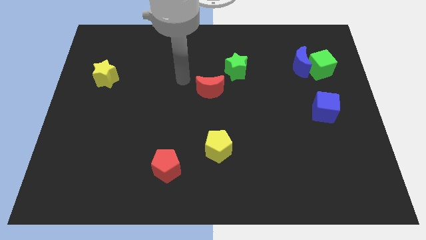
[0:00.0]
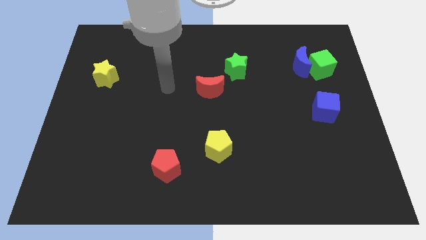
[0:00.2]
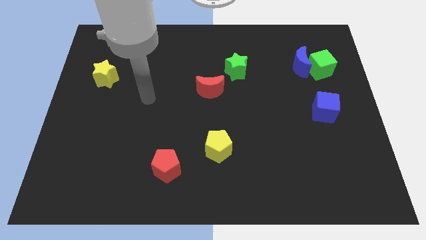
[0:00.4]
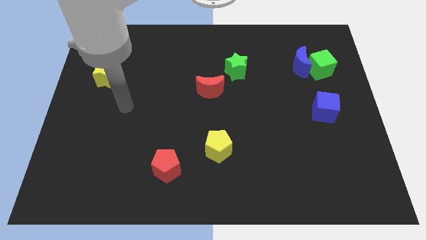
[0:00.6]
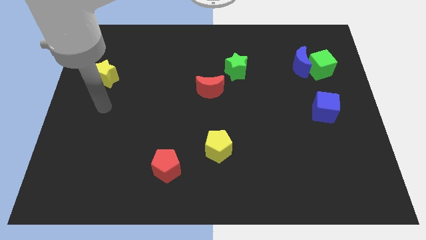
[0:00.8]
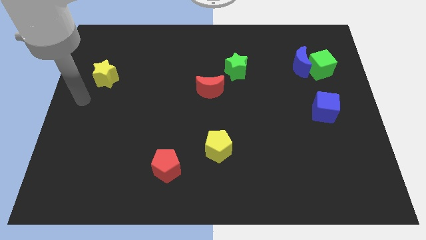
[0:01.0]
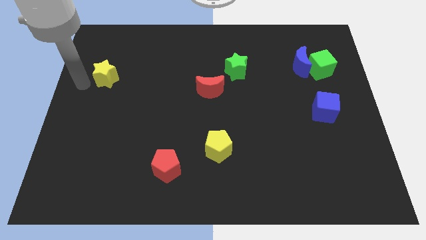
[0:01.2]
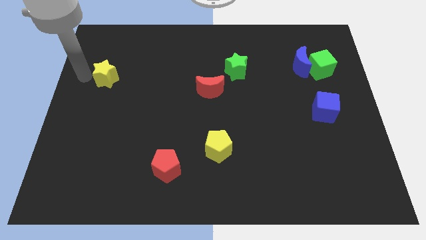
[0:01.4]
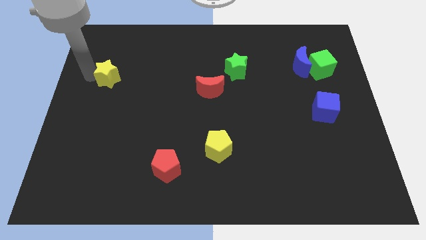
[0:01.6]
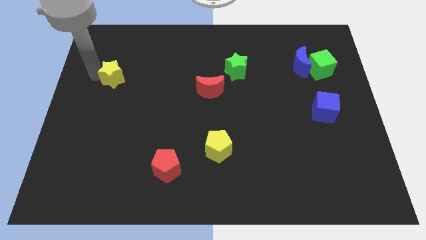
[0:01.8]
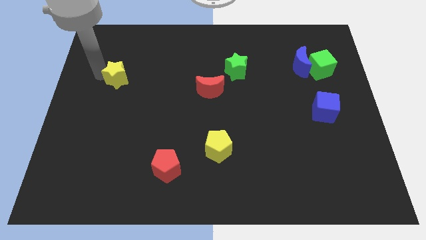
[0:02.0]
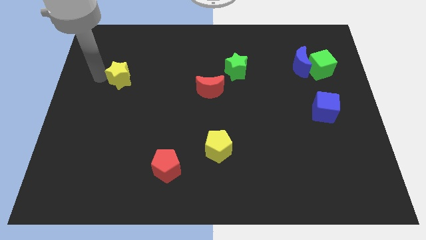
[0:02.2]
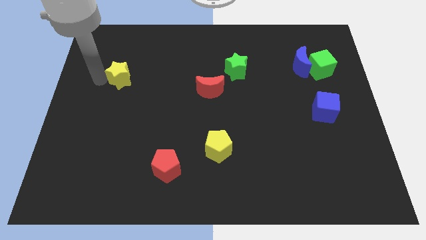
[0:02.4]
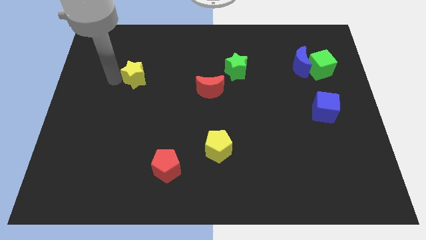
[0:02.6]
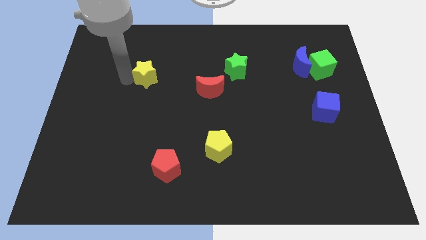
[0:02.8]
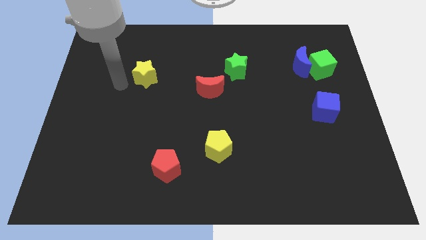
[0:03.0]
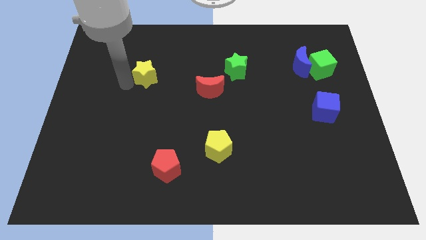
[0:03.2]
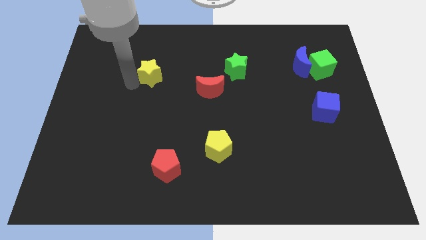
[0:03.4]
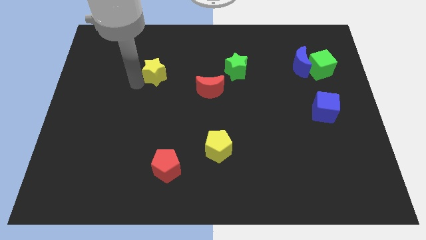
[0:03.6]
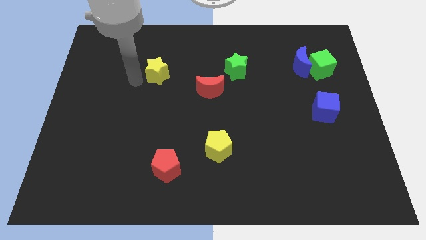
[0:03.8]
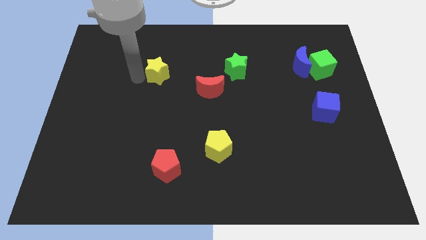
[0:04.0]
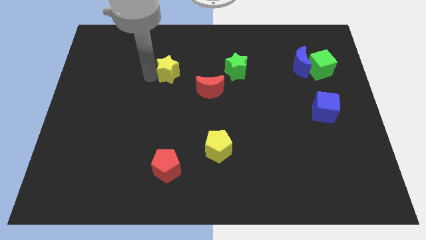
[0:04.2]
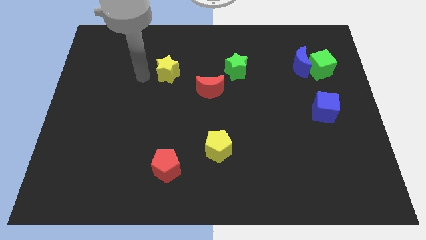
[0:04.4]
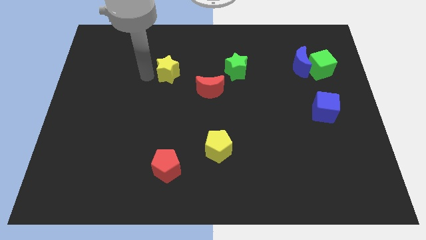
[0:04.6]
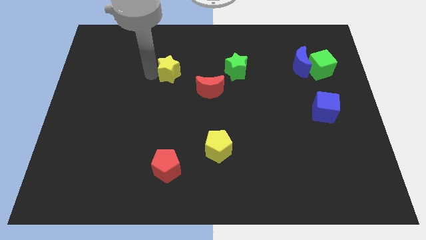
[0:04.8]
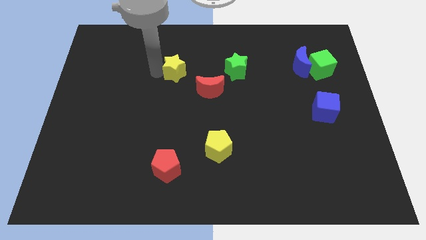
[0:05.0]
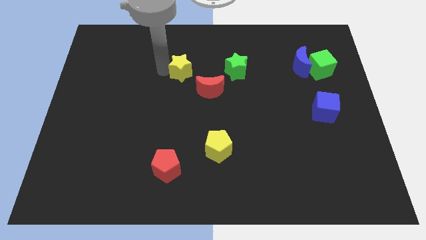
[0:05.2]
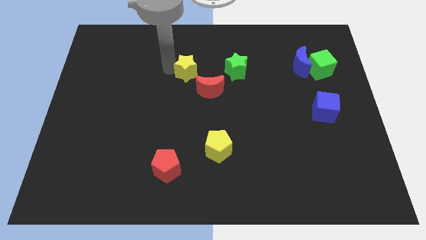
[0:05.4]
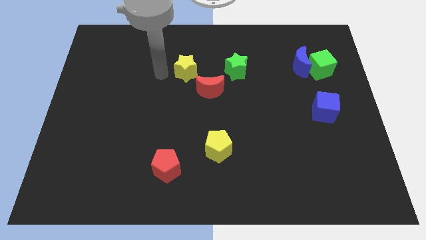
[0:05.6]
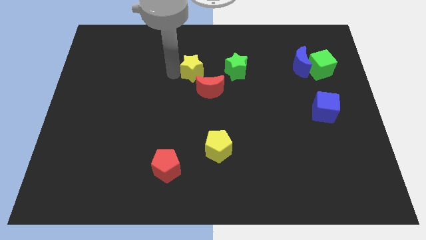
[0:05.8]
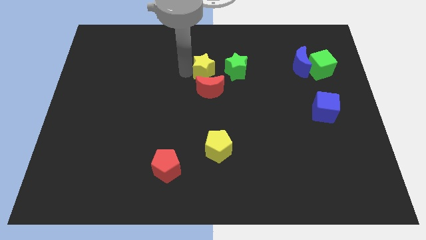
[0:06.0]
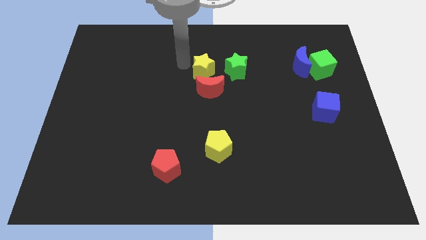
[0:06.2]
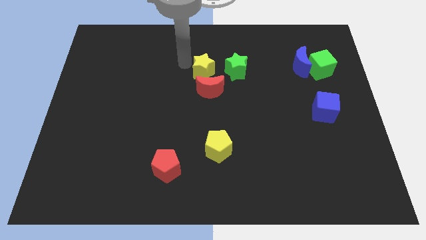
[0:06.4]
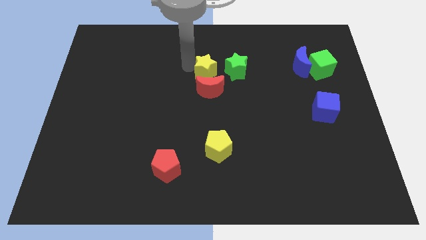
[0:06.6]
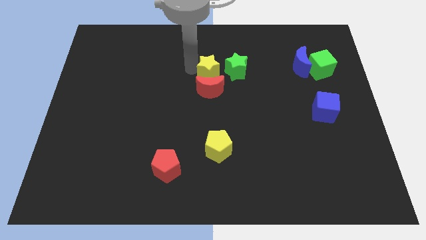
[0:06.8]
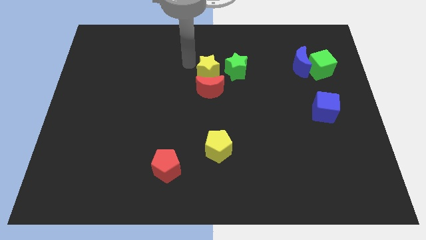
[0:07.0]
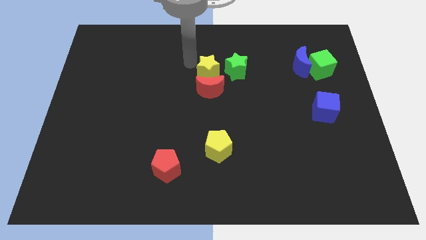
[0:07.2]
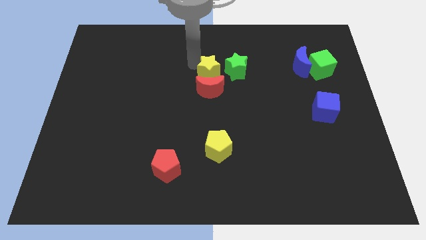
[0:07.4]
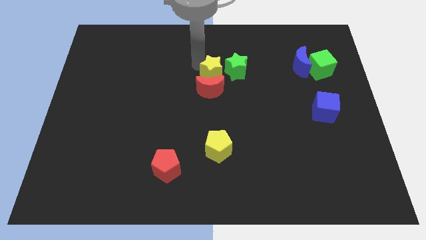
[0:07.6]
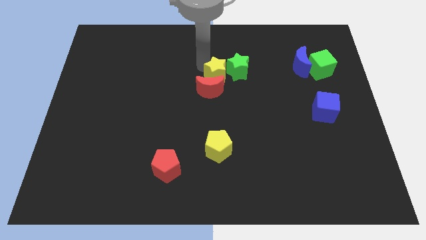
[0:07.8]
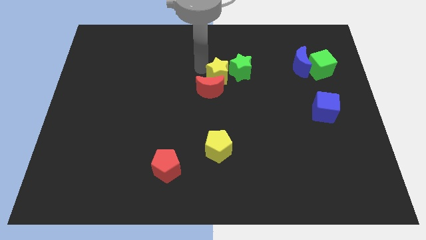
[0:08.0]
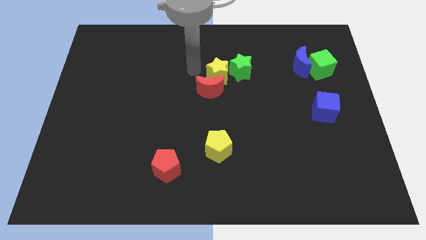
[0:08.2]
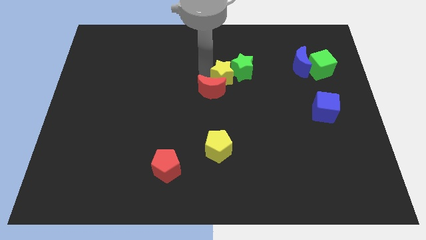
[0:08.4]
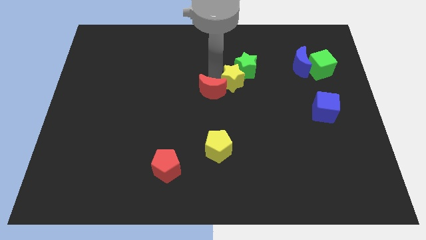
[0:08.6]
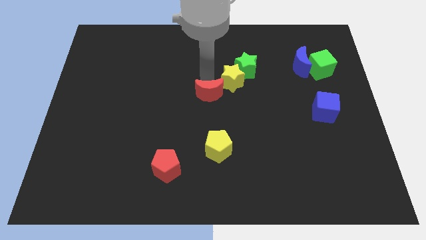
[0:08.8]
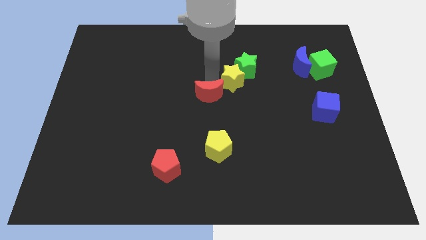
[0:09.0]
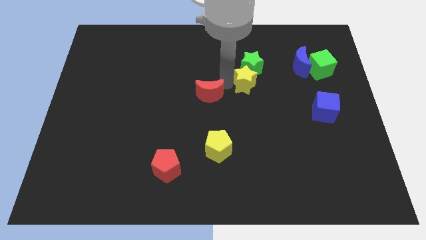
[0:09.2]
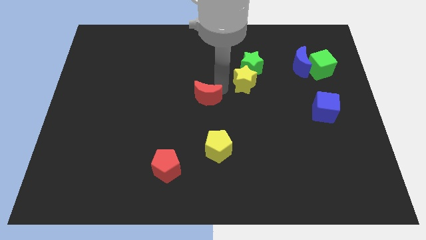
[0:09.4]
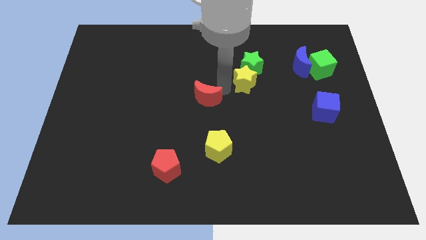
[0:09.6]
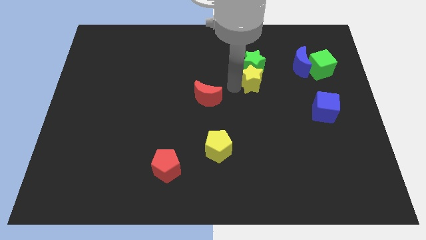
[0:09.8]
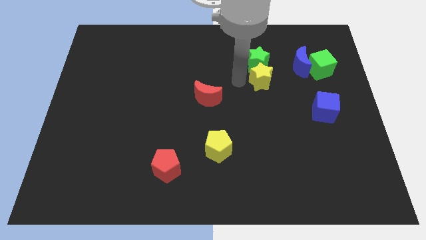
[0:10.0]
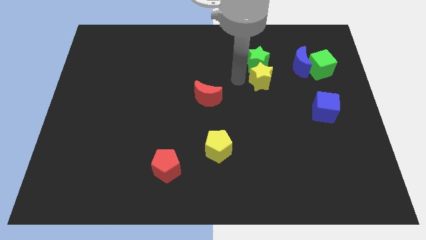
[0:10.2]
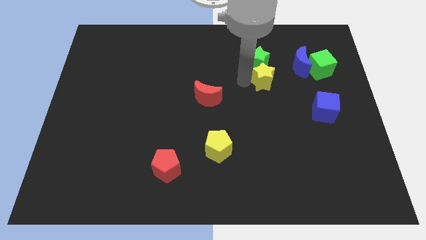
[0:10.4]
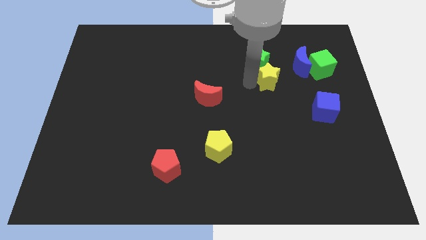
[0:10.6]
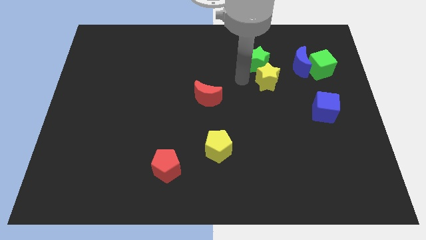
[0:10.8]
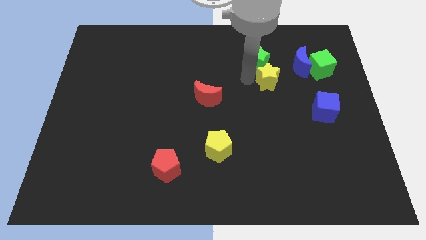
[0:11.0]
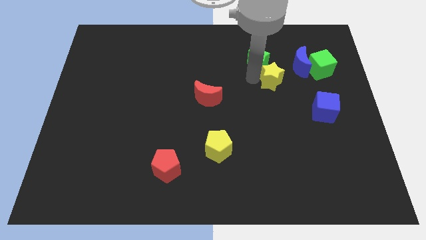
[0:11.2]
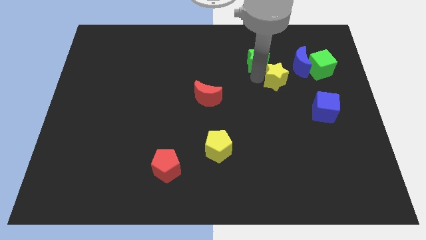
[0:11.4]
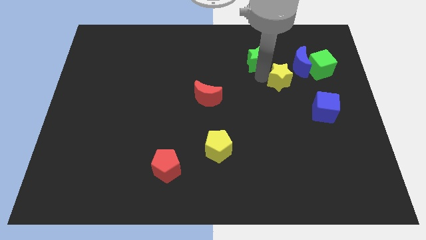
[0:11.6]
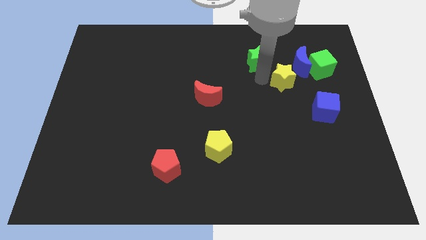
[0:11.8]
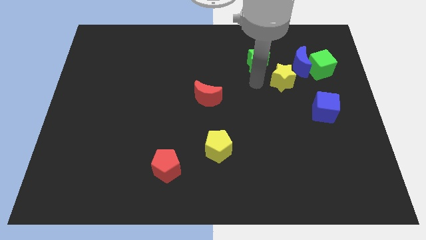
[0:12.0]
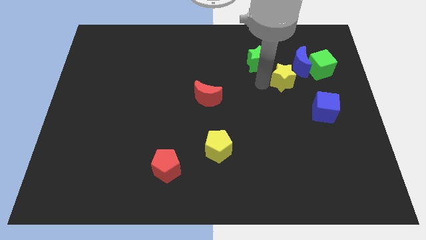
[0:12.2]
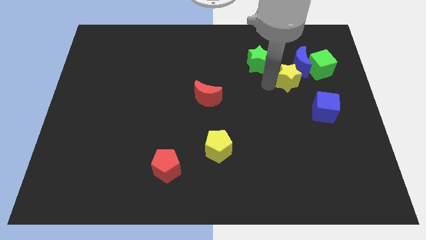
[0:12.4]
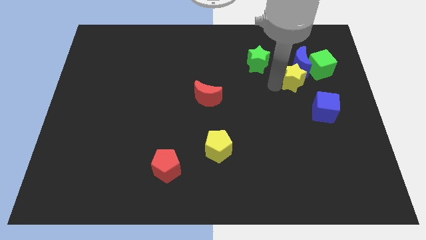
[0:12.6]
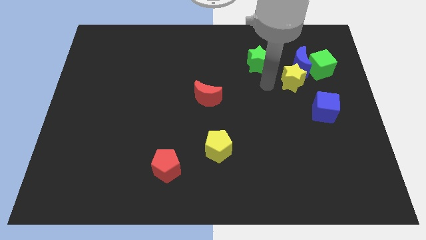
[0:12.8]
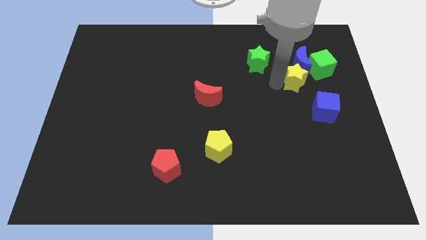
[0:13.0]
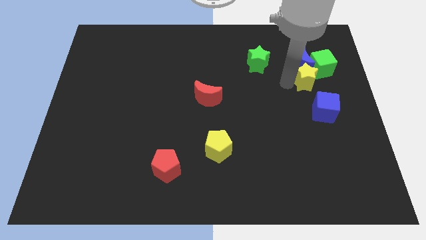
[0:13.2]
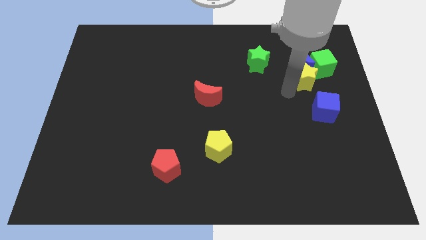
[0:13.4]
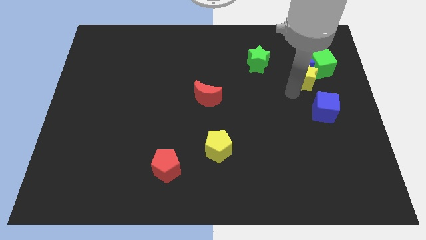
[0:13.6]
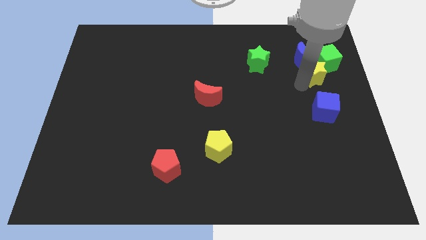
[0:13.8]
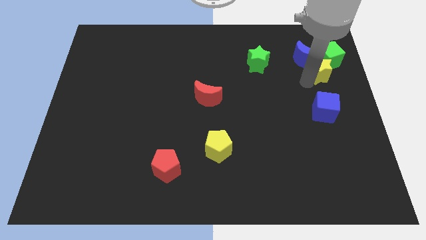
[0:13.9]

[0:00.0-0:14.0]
slide the yellow star to the green cube

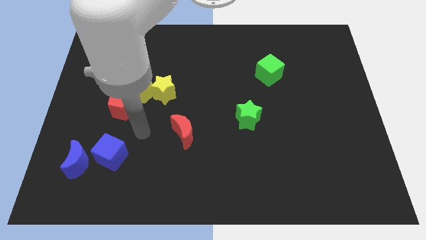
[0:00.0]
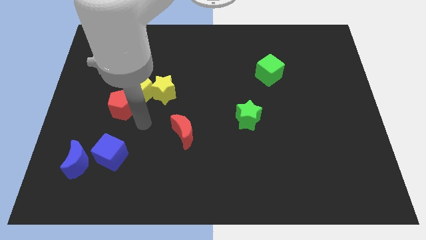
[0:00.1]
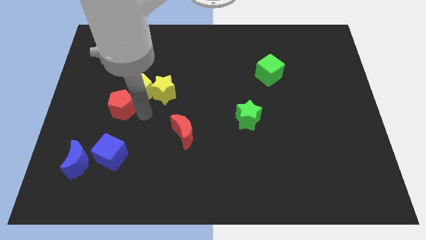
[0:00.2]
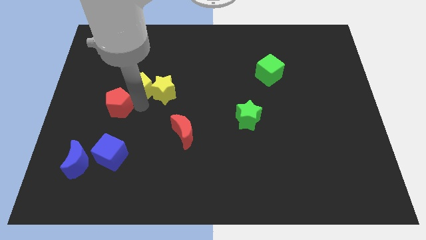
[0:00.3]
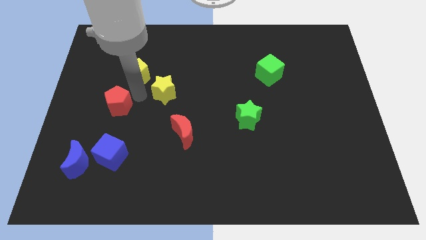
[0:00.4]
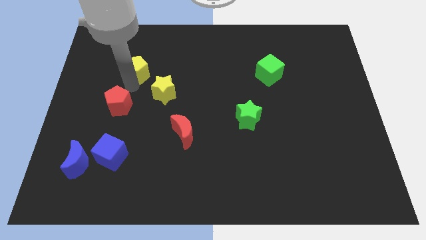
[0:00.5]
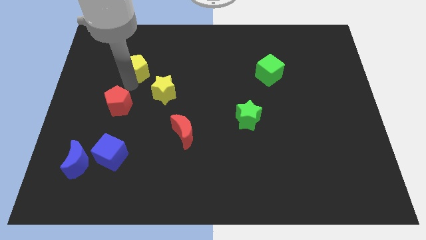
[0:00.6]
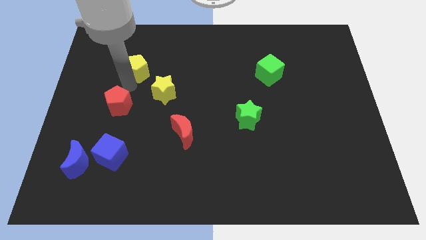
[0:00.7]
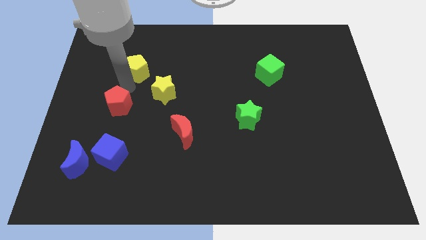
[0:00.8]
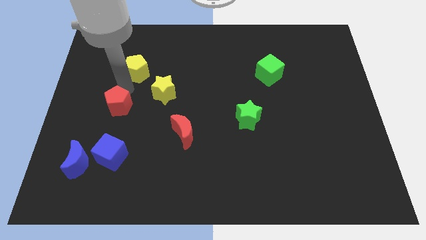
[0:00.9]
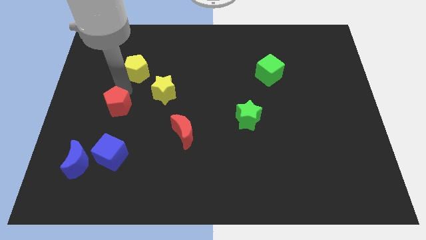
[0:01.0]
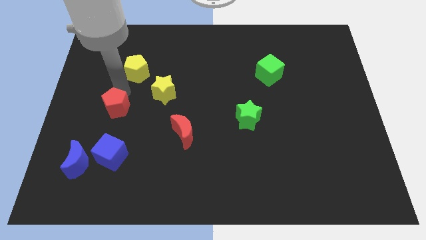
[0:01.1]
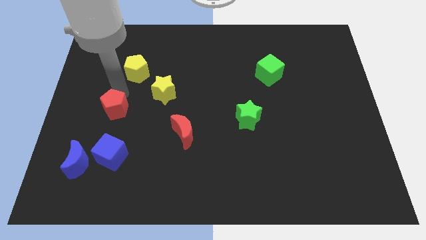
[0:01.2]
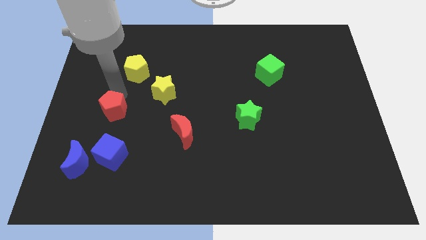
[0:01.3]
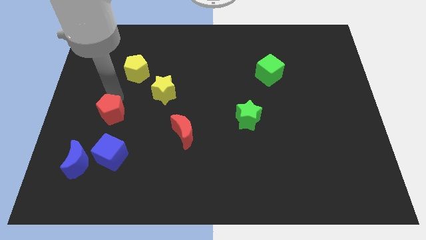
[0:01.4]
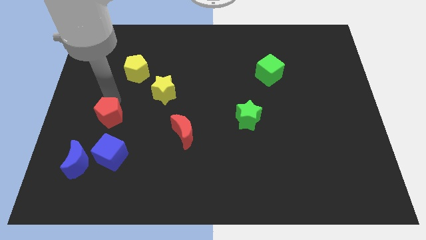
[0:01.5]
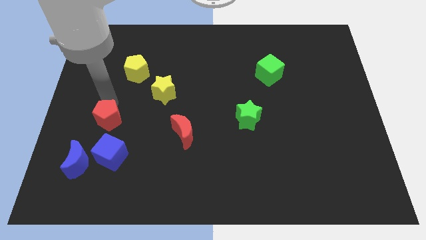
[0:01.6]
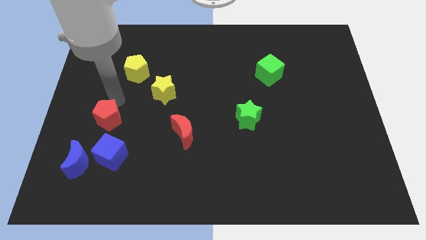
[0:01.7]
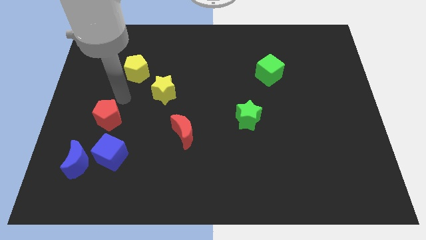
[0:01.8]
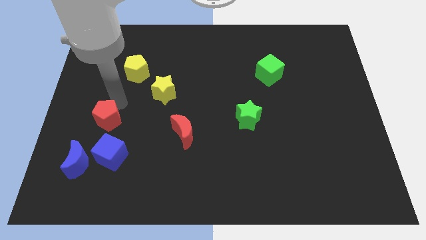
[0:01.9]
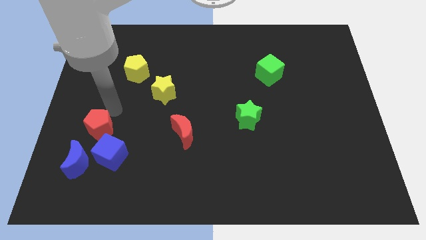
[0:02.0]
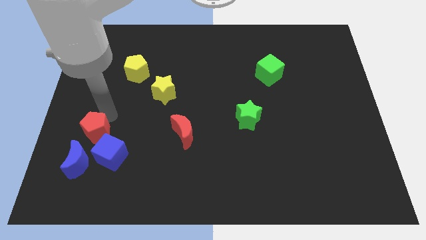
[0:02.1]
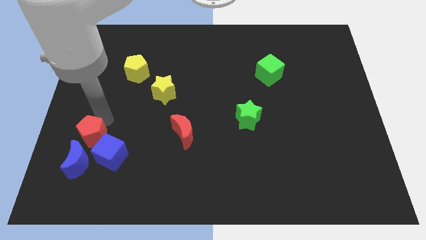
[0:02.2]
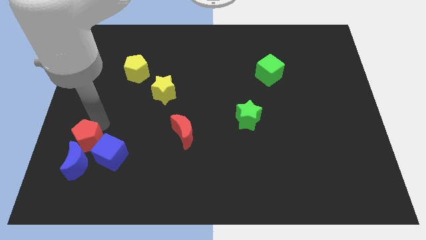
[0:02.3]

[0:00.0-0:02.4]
push the red pentagon towards the blue moon
